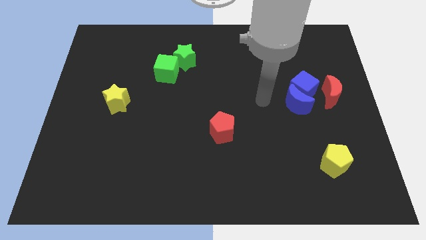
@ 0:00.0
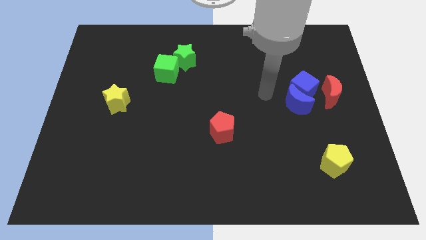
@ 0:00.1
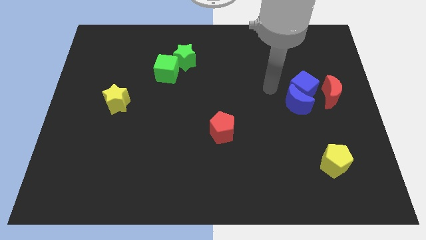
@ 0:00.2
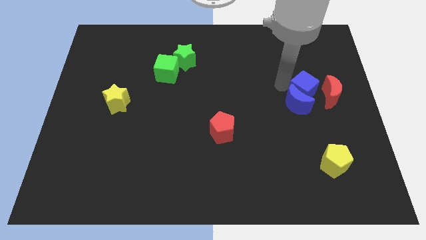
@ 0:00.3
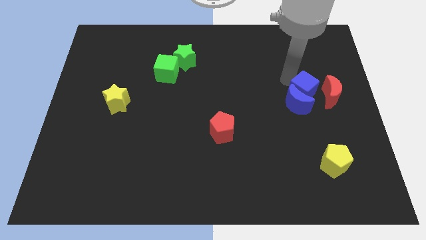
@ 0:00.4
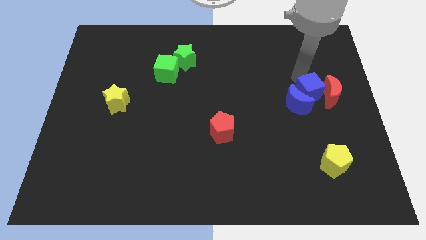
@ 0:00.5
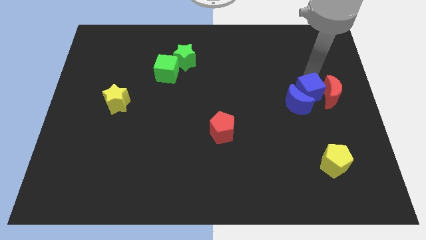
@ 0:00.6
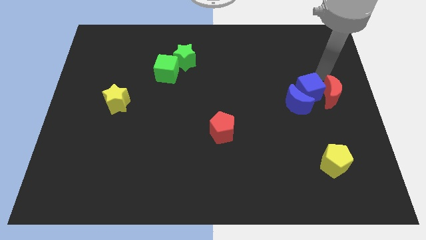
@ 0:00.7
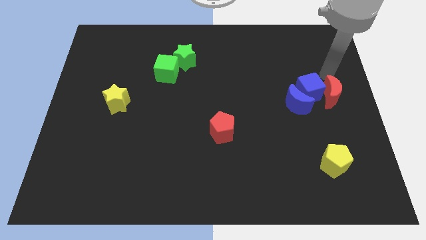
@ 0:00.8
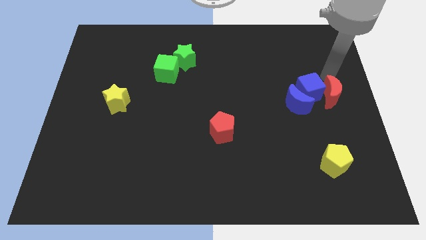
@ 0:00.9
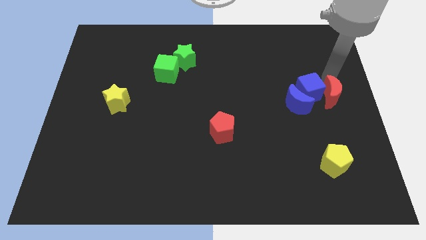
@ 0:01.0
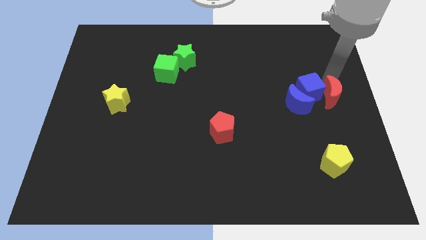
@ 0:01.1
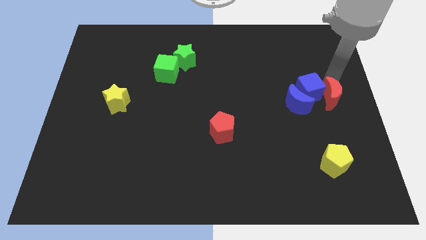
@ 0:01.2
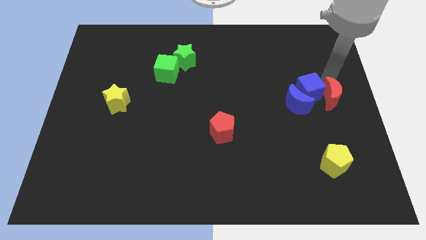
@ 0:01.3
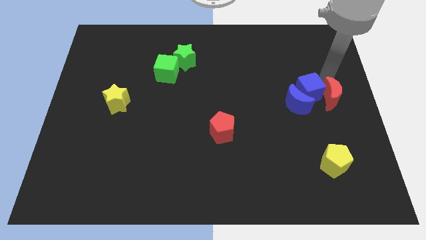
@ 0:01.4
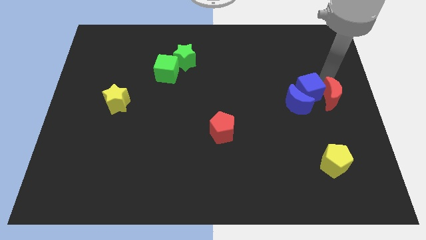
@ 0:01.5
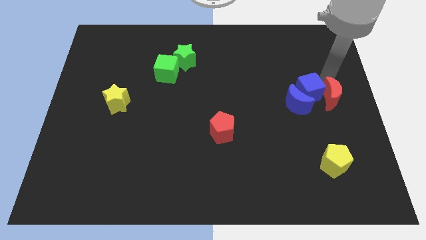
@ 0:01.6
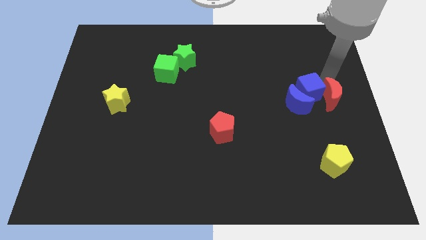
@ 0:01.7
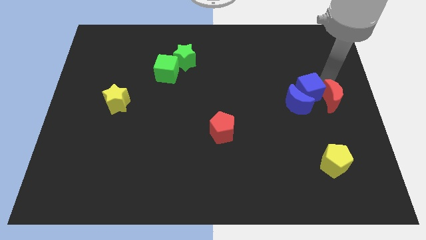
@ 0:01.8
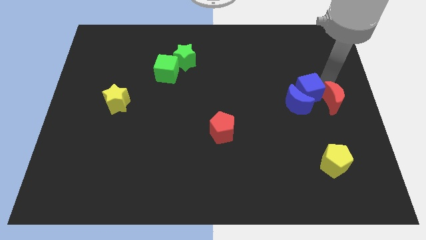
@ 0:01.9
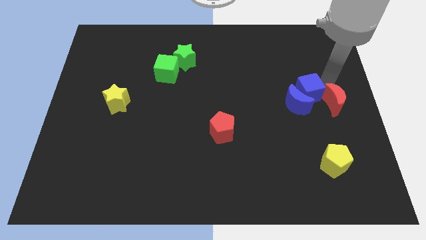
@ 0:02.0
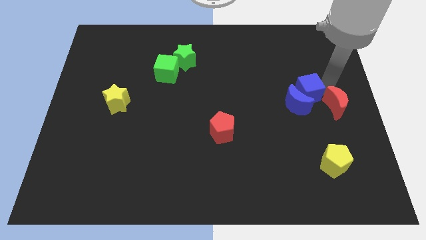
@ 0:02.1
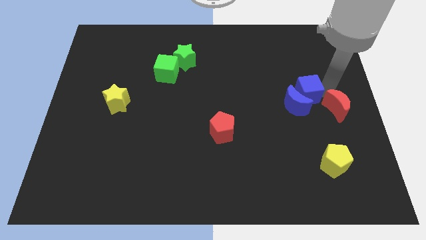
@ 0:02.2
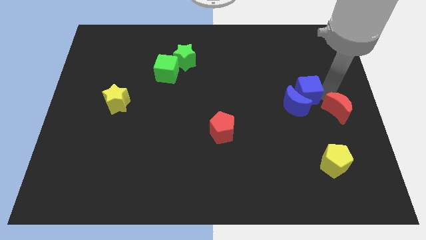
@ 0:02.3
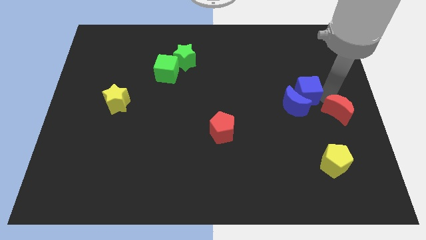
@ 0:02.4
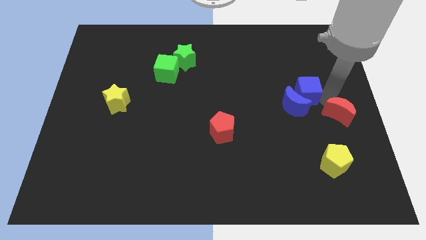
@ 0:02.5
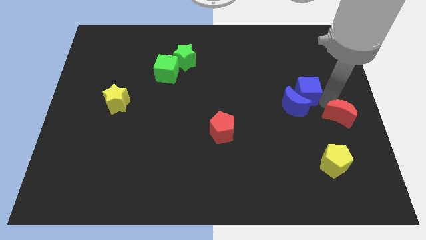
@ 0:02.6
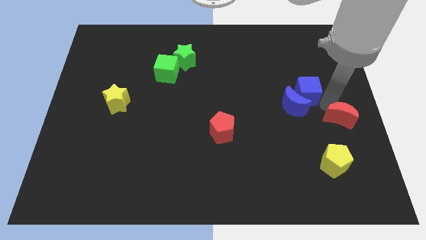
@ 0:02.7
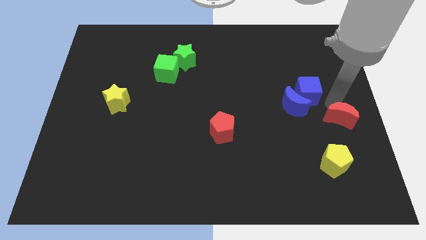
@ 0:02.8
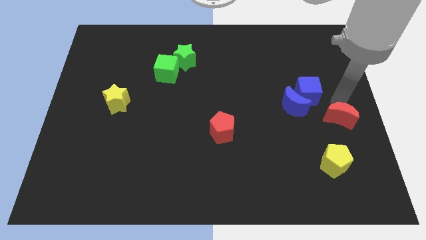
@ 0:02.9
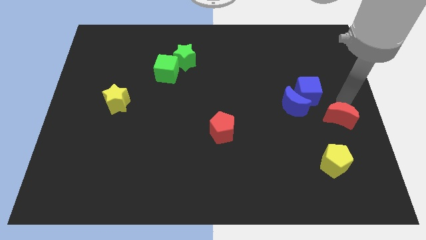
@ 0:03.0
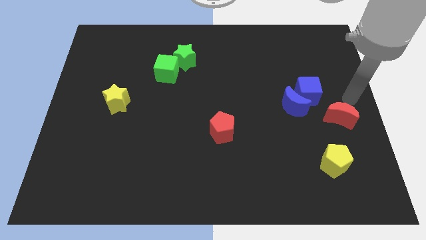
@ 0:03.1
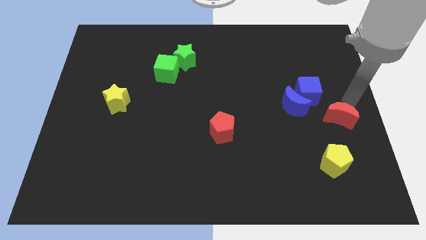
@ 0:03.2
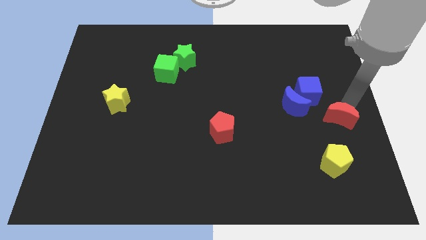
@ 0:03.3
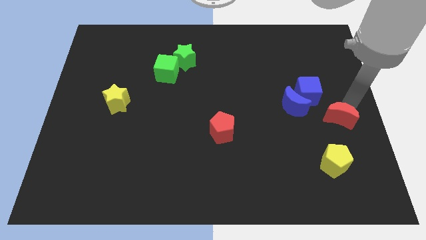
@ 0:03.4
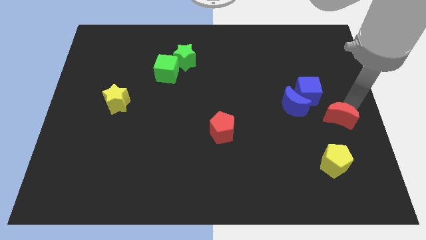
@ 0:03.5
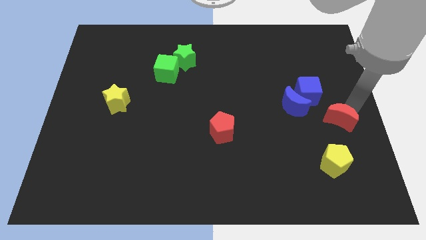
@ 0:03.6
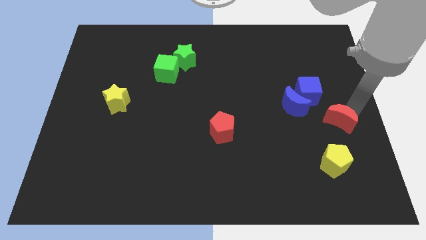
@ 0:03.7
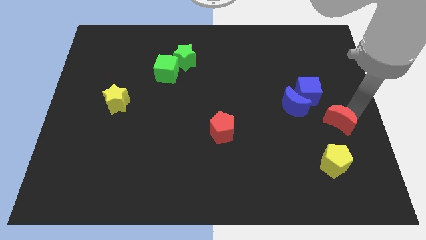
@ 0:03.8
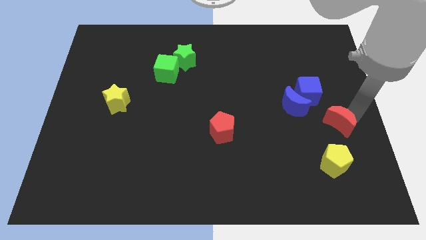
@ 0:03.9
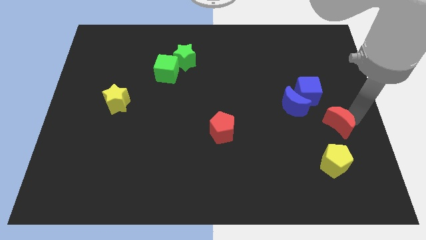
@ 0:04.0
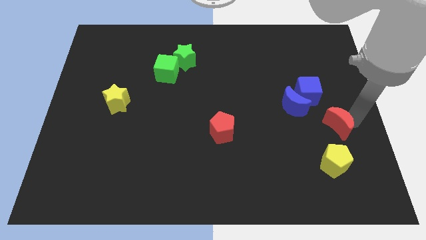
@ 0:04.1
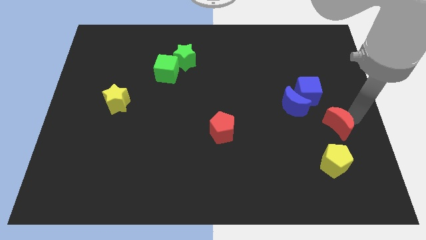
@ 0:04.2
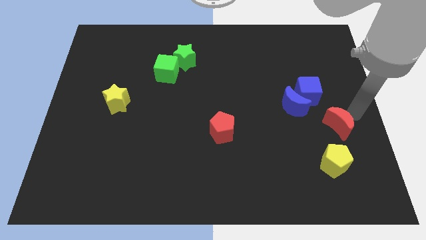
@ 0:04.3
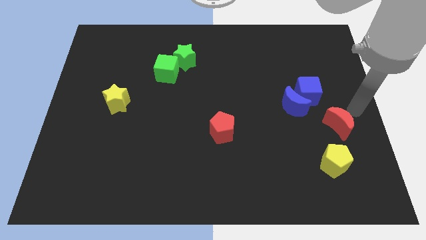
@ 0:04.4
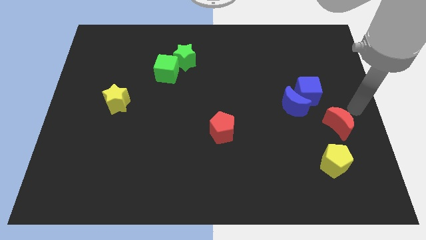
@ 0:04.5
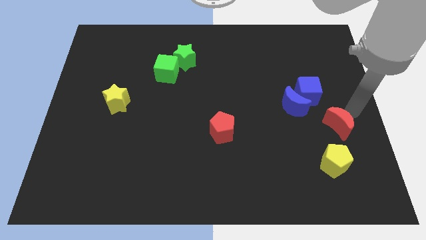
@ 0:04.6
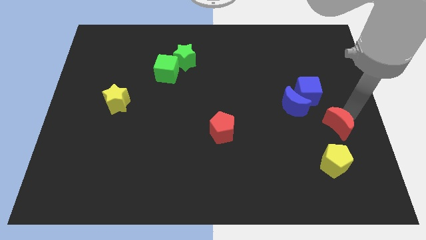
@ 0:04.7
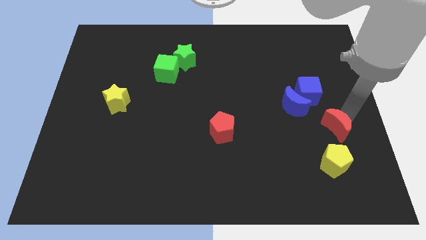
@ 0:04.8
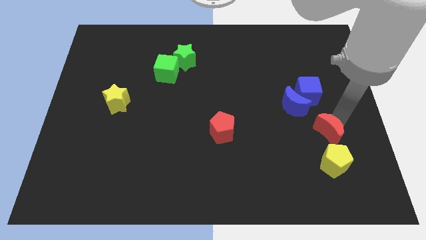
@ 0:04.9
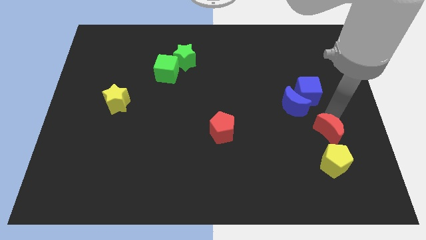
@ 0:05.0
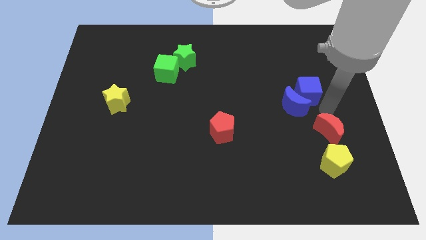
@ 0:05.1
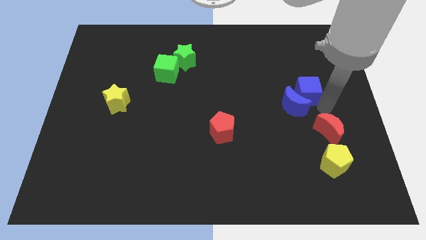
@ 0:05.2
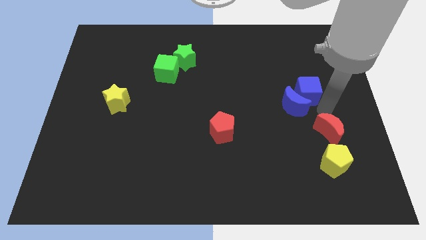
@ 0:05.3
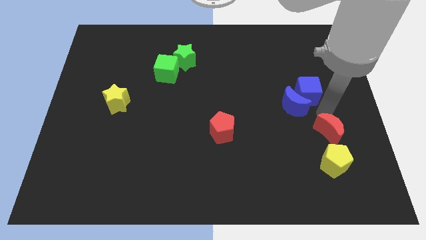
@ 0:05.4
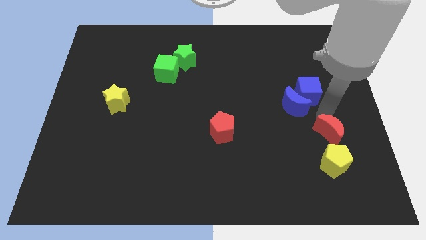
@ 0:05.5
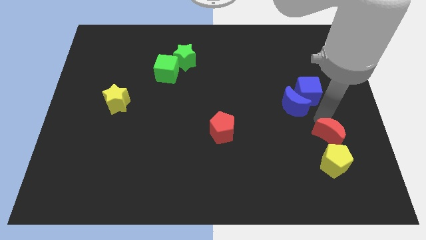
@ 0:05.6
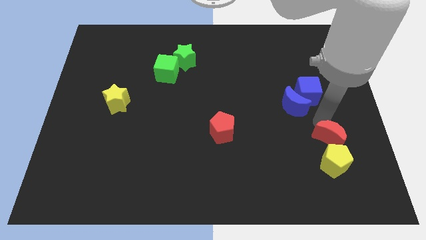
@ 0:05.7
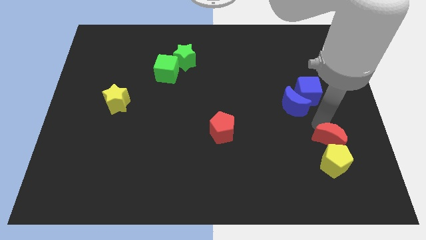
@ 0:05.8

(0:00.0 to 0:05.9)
slide the red moon to the yellow pentagon

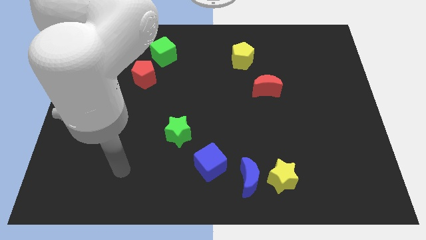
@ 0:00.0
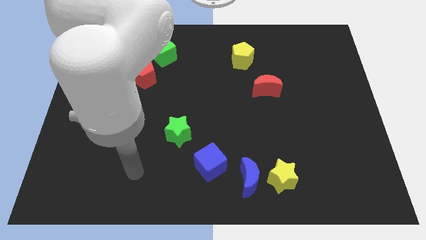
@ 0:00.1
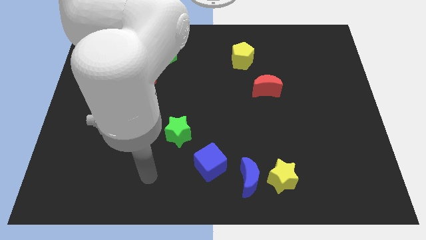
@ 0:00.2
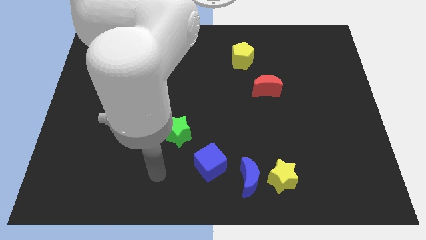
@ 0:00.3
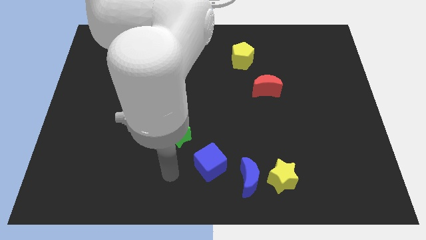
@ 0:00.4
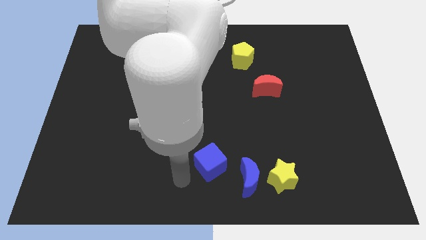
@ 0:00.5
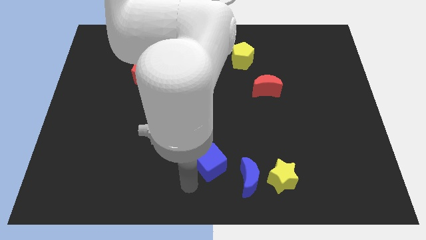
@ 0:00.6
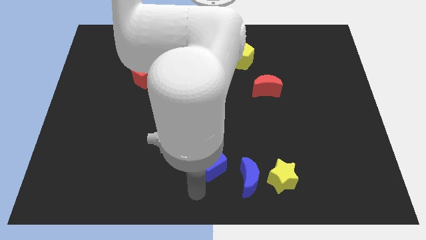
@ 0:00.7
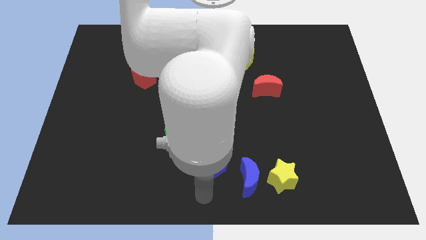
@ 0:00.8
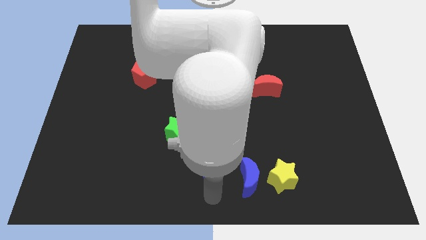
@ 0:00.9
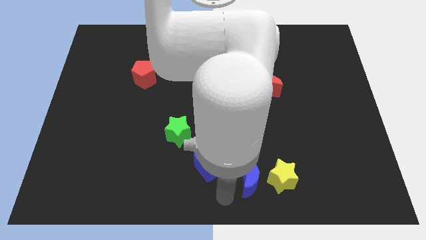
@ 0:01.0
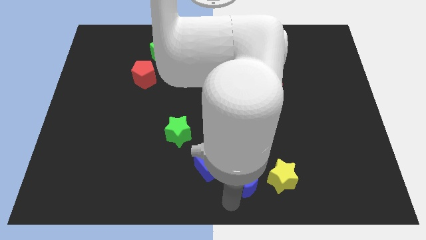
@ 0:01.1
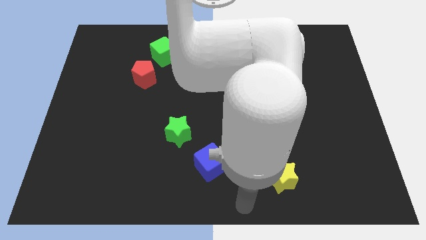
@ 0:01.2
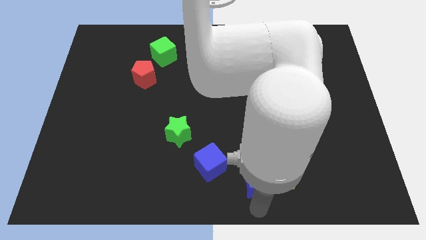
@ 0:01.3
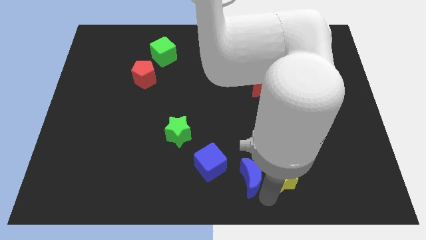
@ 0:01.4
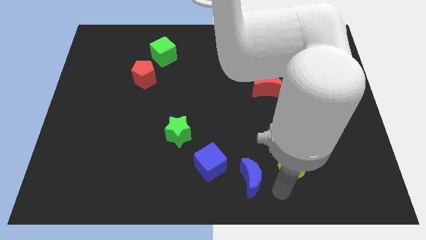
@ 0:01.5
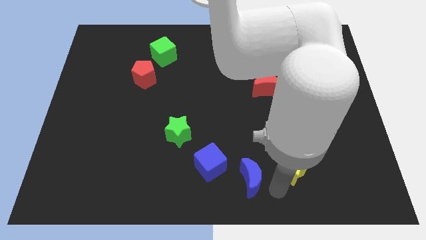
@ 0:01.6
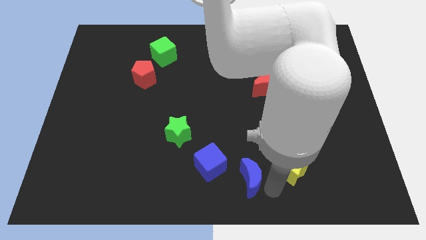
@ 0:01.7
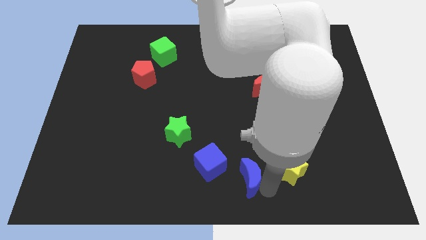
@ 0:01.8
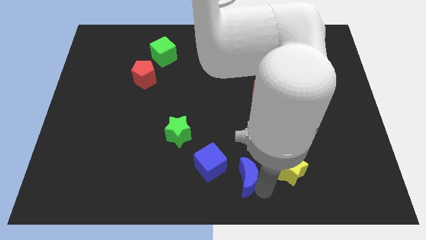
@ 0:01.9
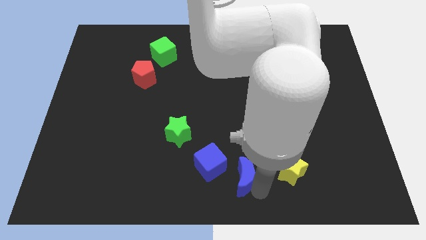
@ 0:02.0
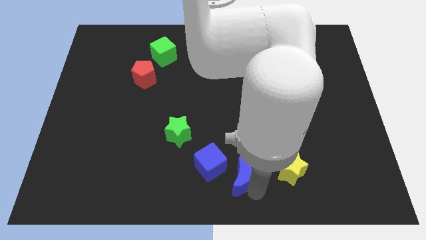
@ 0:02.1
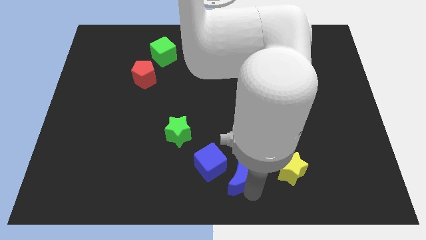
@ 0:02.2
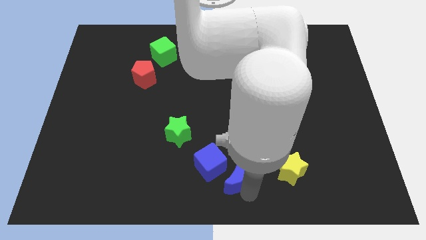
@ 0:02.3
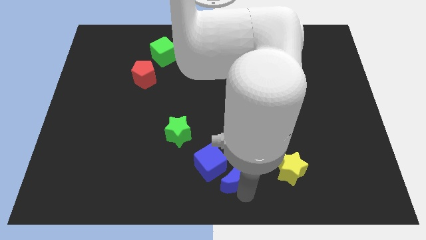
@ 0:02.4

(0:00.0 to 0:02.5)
move the blue moon towards the blue cube
